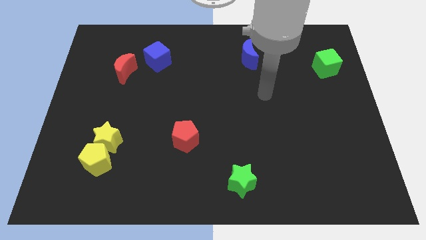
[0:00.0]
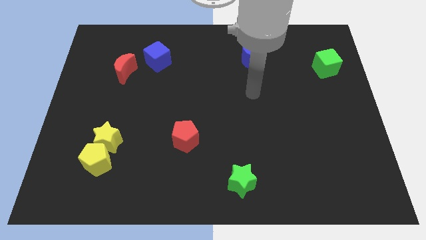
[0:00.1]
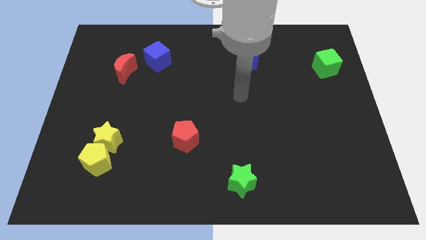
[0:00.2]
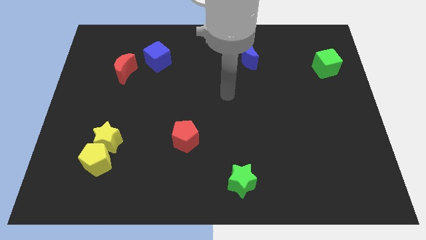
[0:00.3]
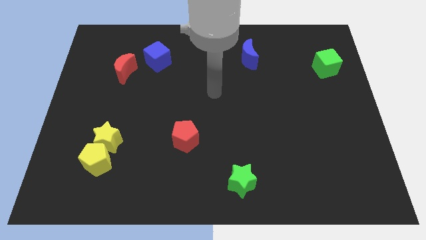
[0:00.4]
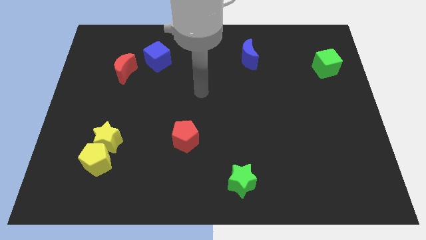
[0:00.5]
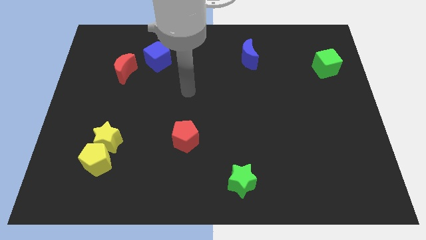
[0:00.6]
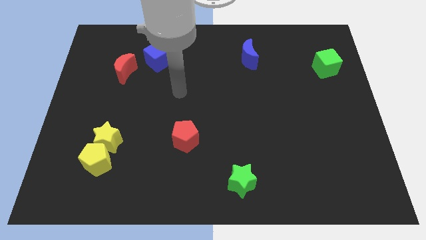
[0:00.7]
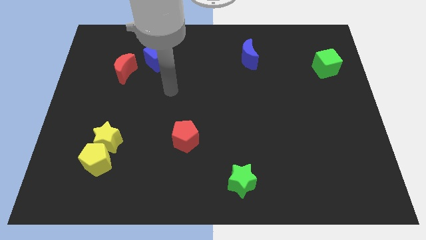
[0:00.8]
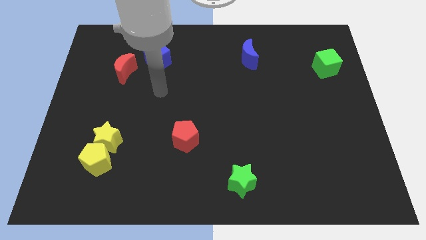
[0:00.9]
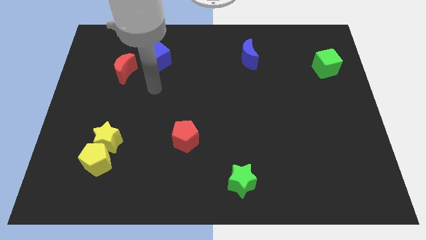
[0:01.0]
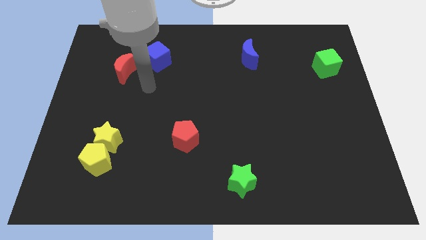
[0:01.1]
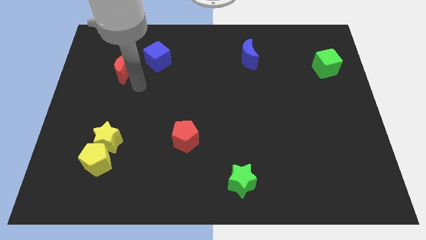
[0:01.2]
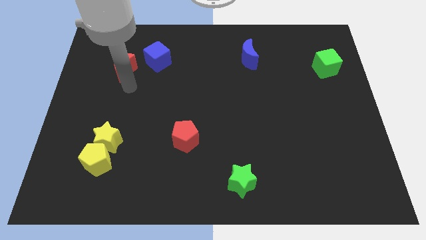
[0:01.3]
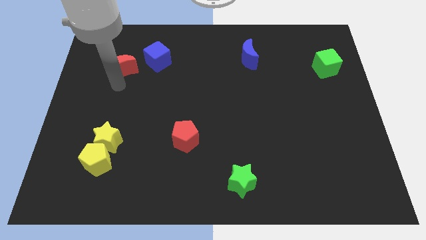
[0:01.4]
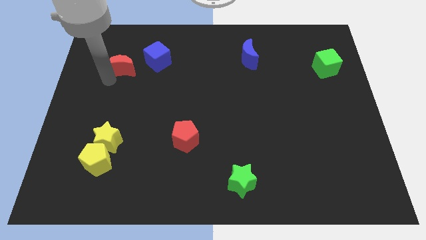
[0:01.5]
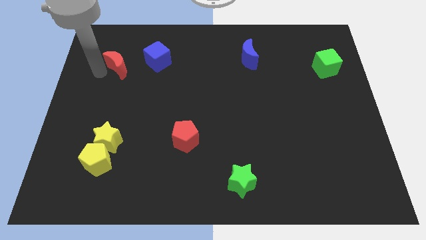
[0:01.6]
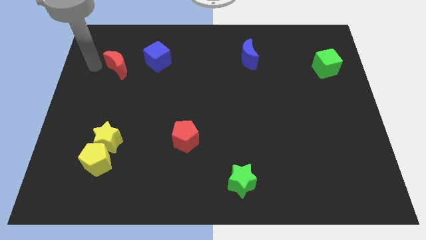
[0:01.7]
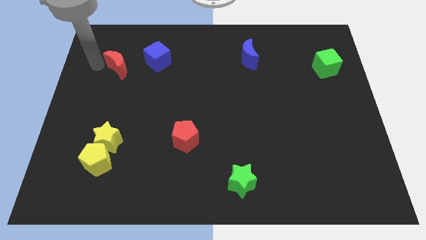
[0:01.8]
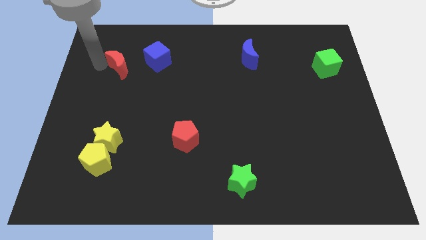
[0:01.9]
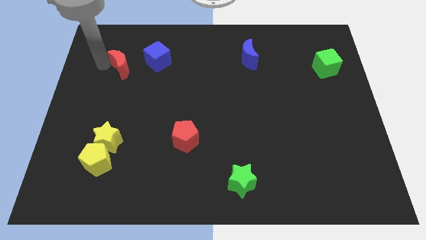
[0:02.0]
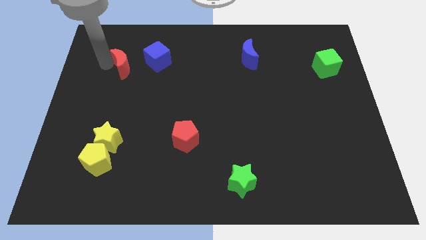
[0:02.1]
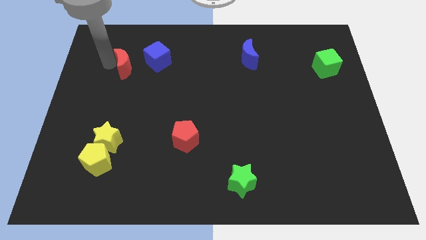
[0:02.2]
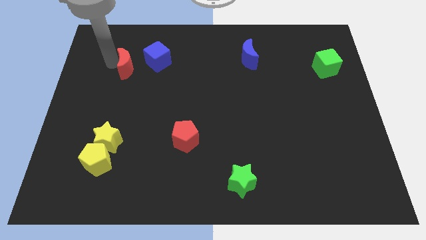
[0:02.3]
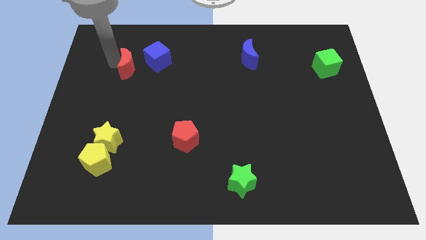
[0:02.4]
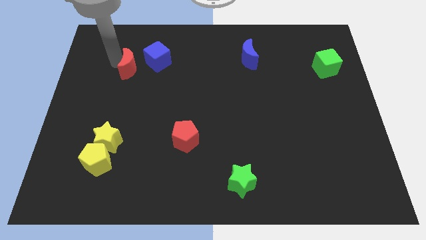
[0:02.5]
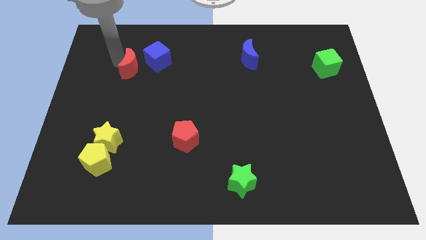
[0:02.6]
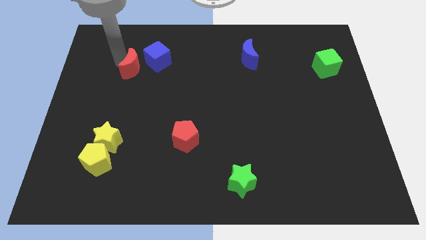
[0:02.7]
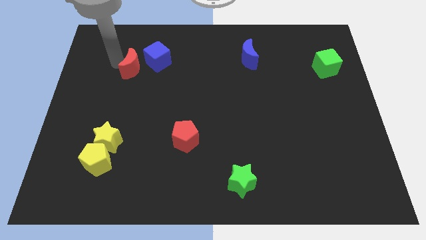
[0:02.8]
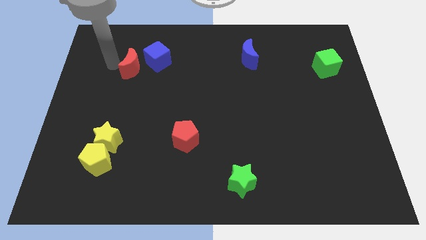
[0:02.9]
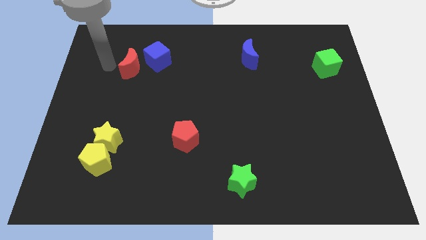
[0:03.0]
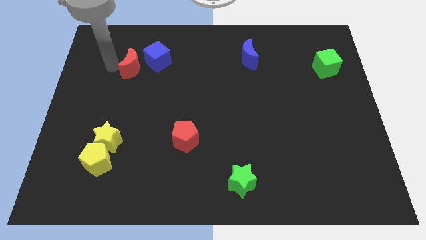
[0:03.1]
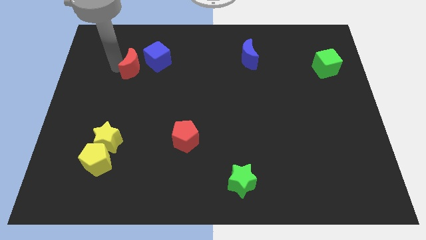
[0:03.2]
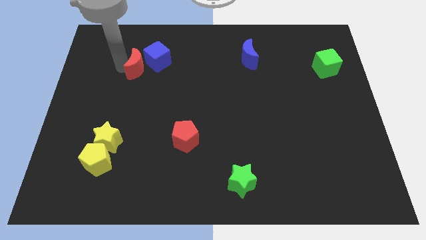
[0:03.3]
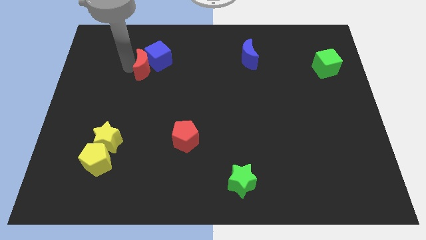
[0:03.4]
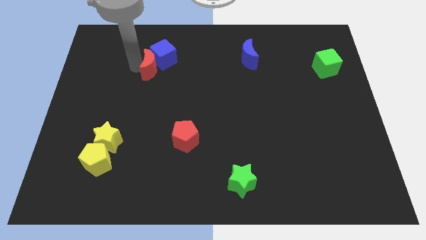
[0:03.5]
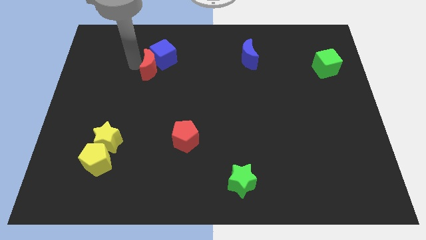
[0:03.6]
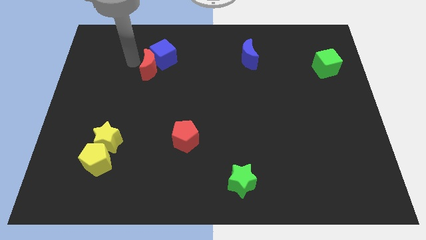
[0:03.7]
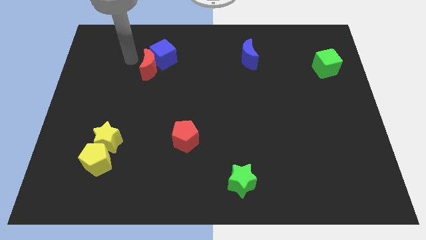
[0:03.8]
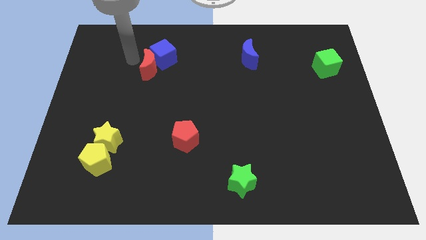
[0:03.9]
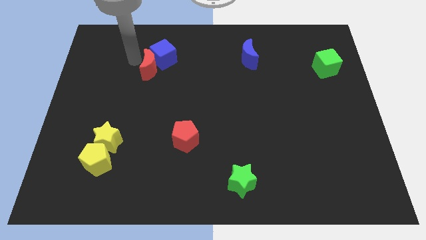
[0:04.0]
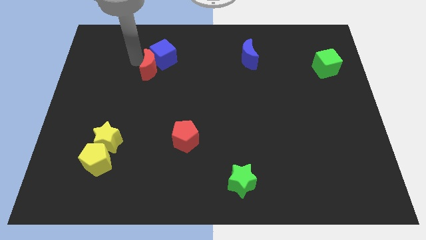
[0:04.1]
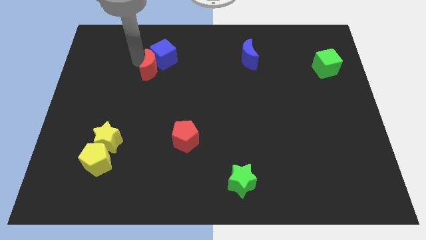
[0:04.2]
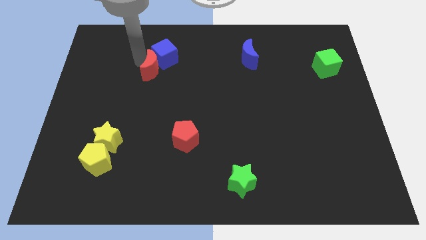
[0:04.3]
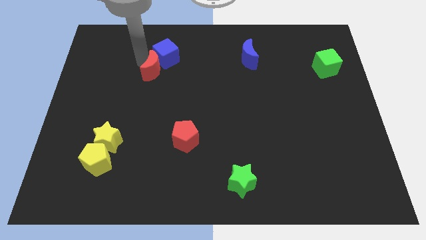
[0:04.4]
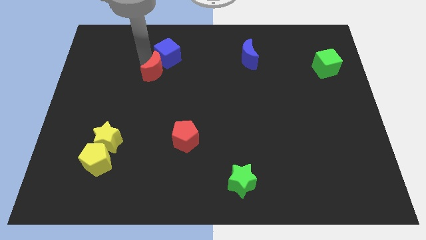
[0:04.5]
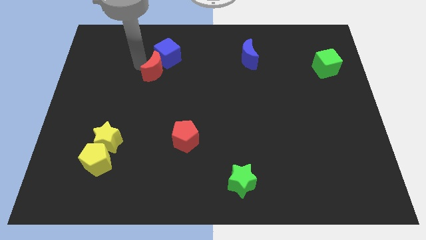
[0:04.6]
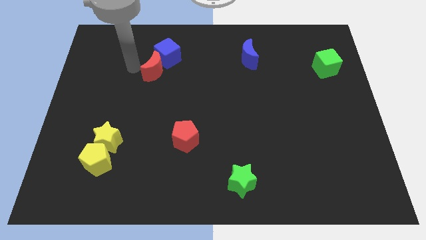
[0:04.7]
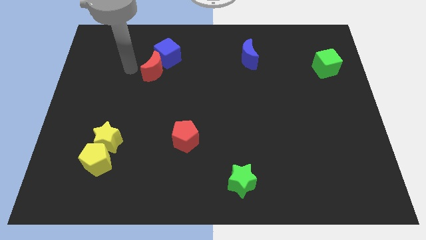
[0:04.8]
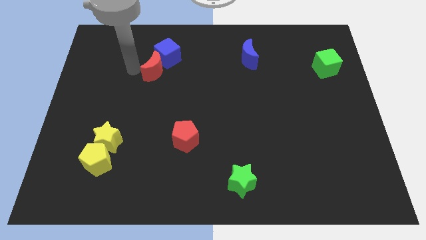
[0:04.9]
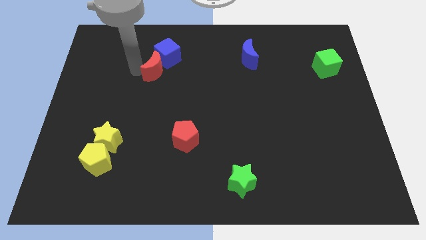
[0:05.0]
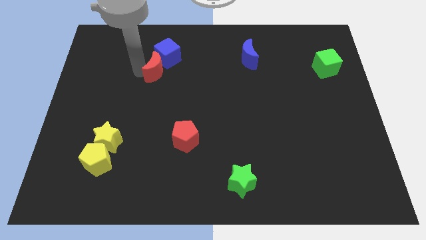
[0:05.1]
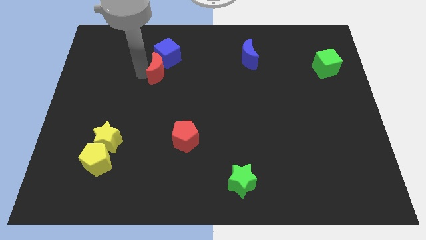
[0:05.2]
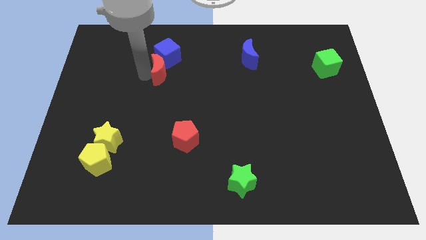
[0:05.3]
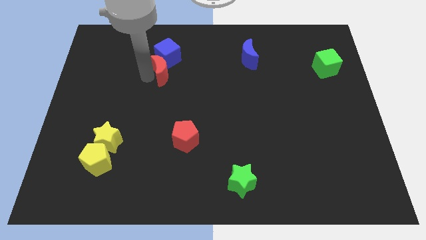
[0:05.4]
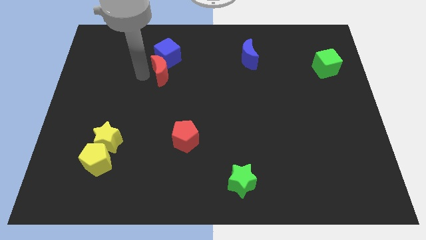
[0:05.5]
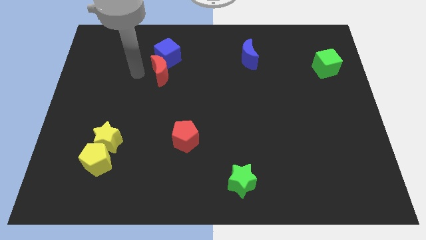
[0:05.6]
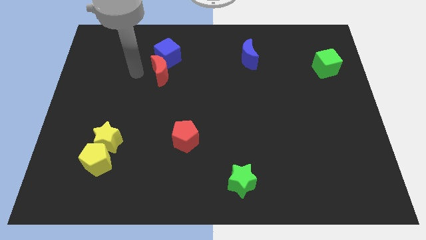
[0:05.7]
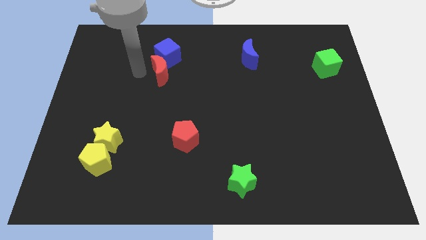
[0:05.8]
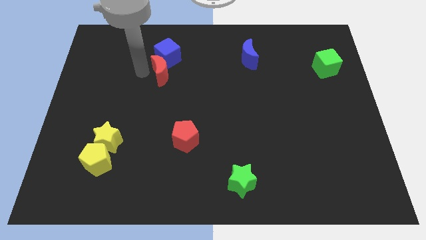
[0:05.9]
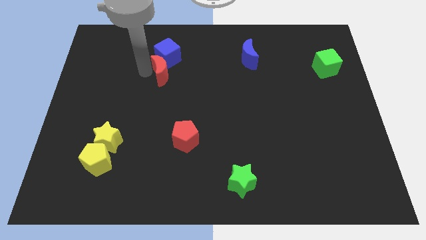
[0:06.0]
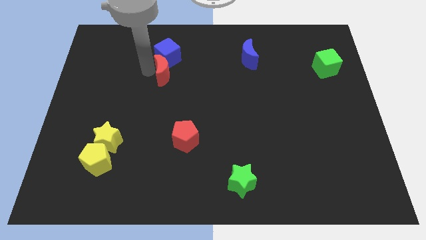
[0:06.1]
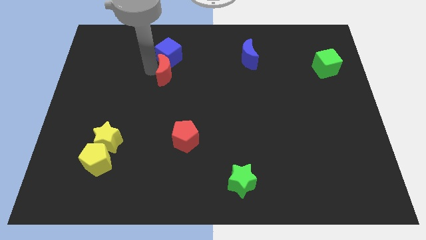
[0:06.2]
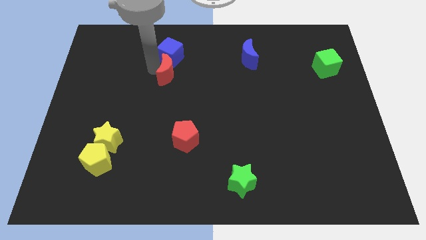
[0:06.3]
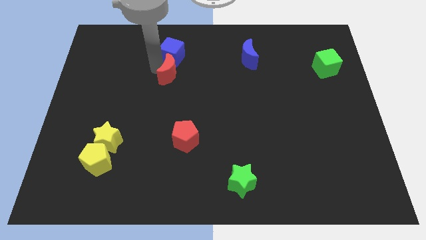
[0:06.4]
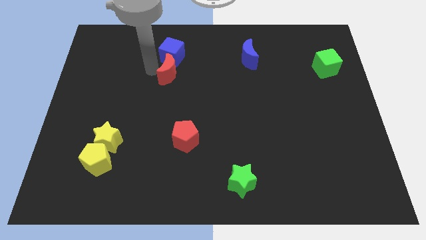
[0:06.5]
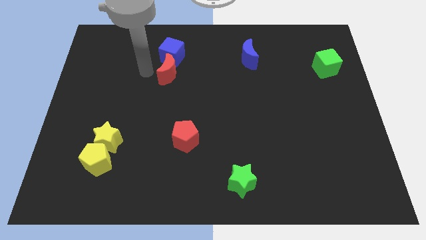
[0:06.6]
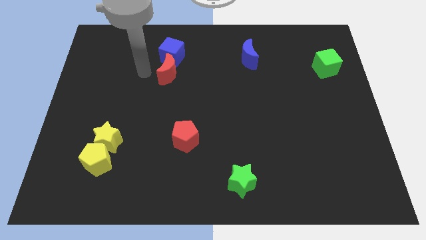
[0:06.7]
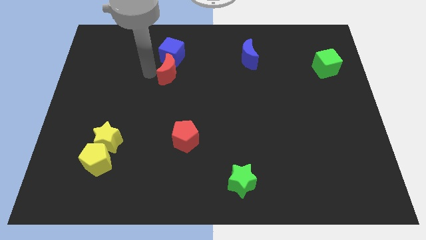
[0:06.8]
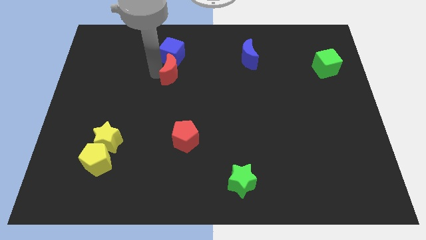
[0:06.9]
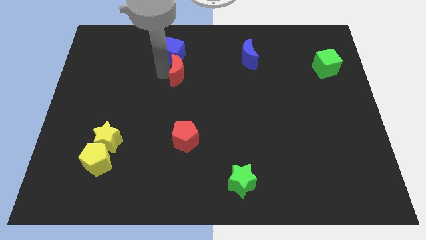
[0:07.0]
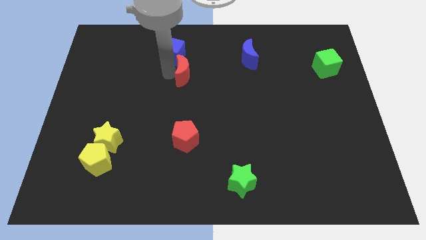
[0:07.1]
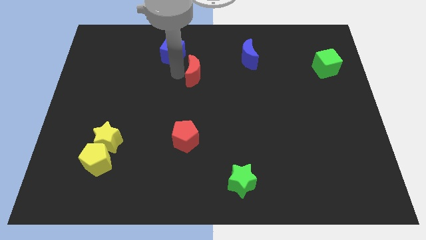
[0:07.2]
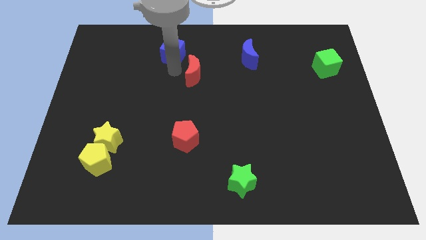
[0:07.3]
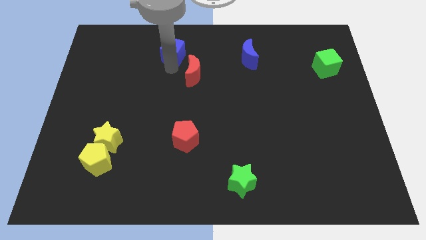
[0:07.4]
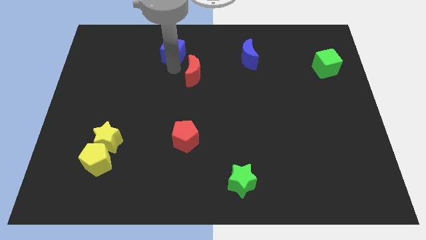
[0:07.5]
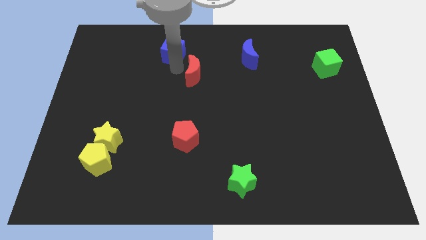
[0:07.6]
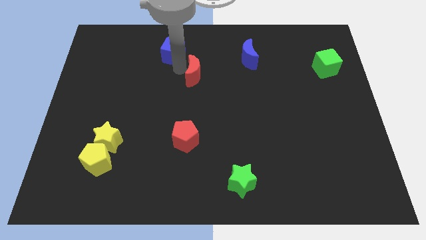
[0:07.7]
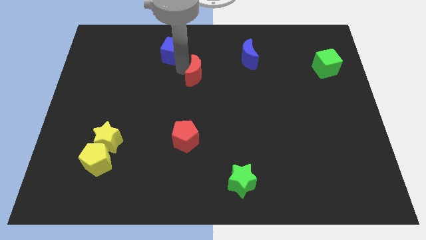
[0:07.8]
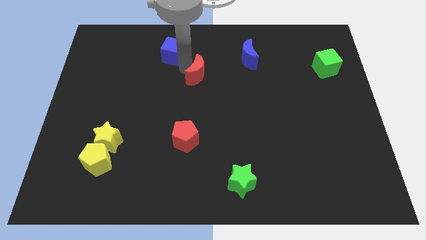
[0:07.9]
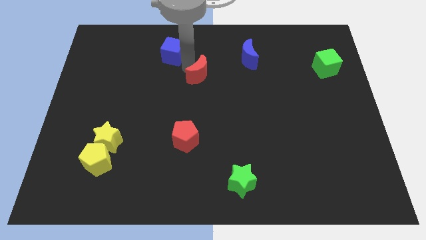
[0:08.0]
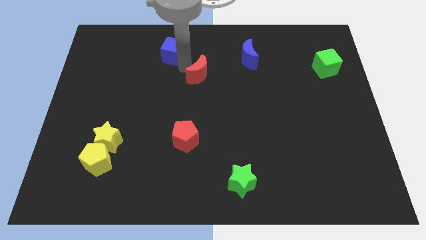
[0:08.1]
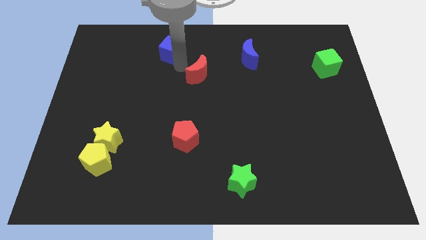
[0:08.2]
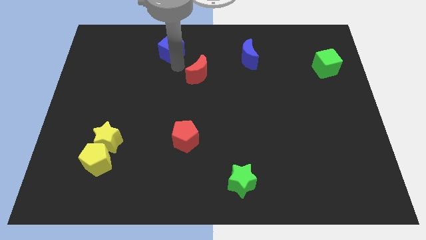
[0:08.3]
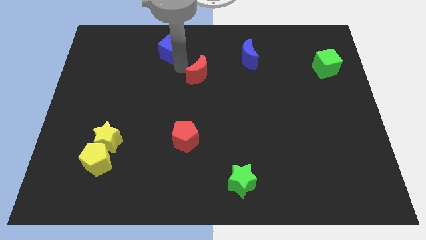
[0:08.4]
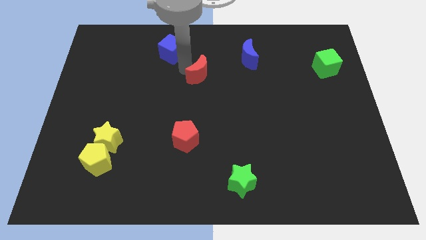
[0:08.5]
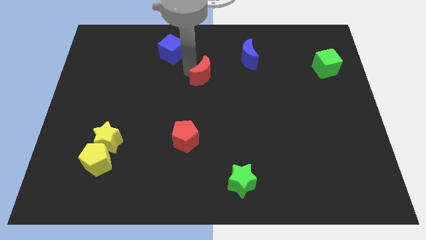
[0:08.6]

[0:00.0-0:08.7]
slide the red moon to the right
